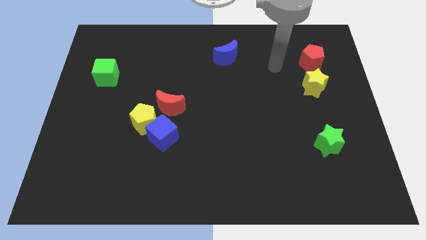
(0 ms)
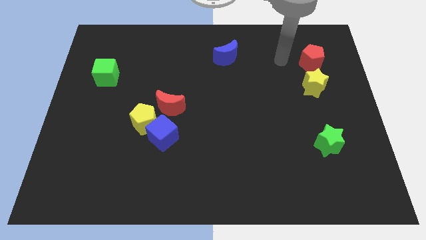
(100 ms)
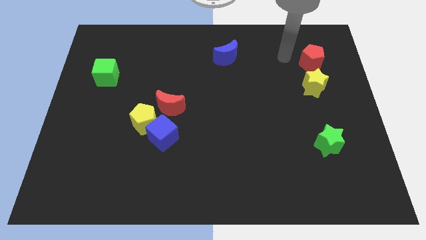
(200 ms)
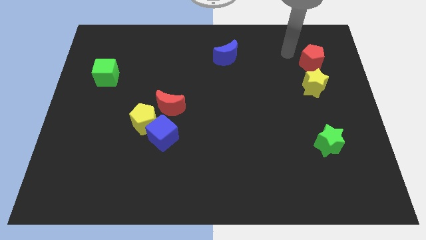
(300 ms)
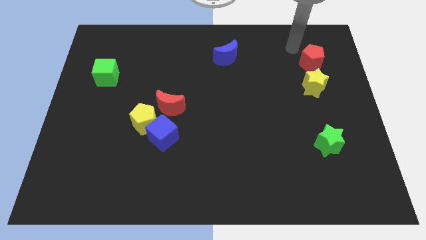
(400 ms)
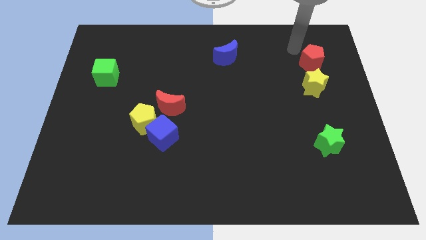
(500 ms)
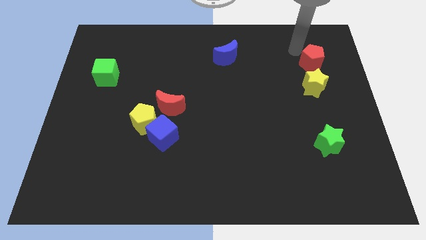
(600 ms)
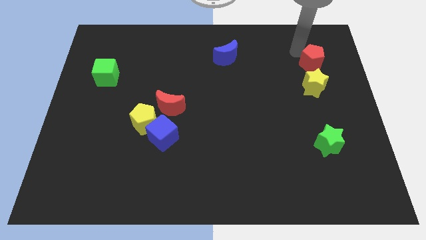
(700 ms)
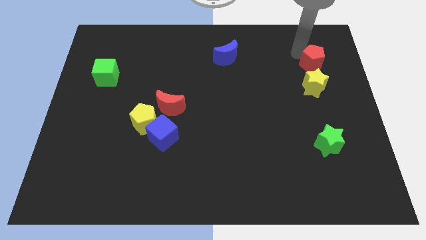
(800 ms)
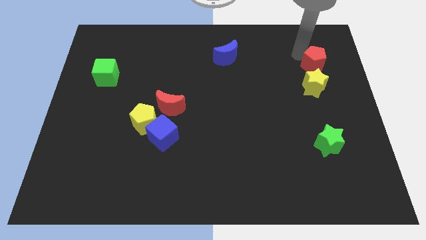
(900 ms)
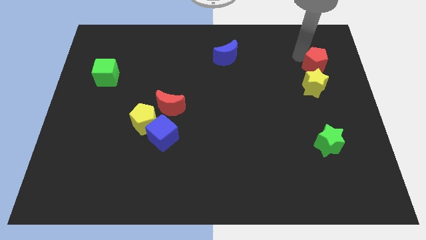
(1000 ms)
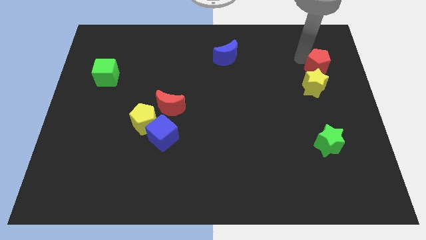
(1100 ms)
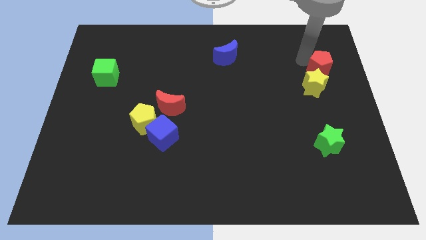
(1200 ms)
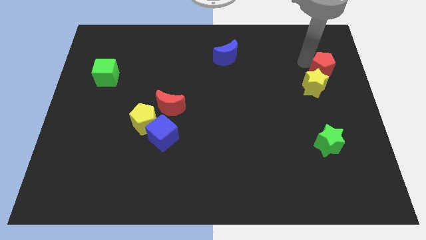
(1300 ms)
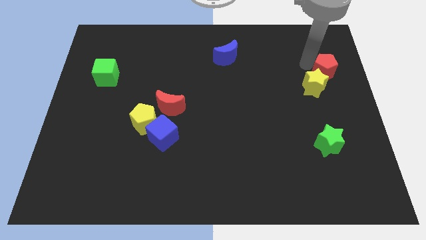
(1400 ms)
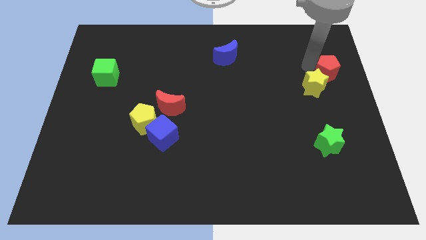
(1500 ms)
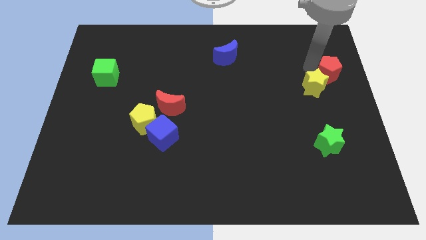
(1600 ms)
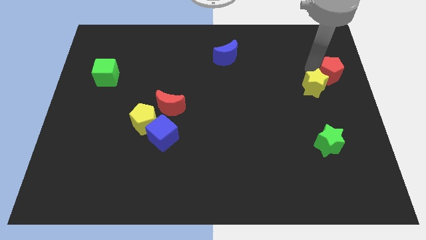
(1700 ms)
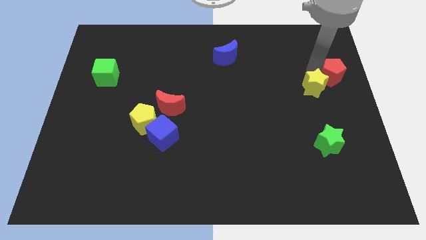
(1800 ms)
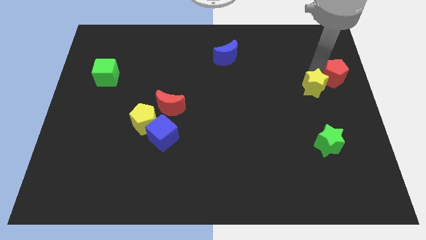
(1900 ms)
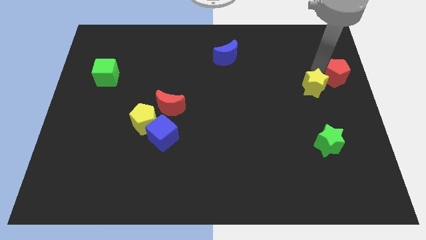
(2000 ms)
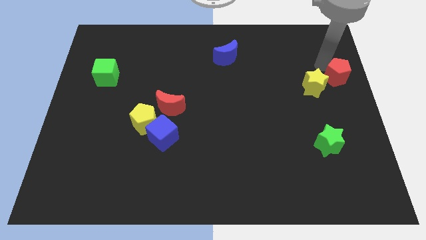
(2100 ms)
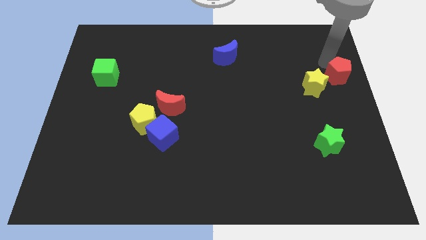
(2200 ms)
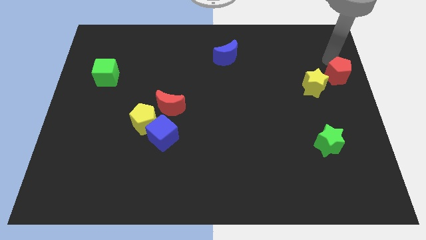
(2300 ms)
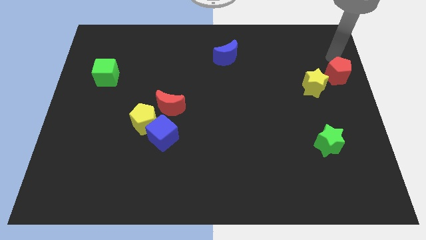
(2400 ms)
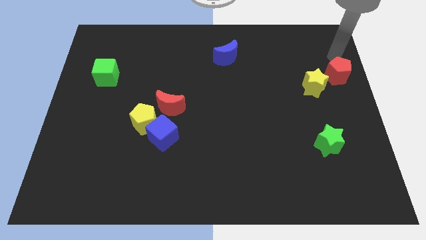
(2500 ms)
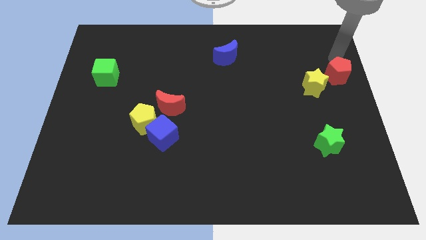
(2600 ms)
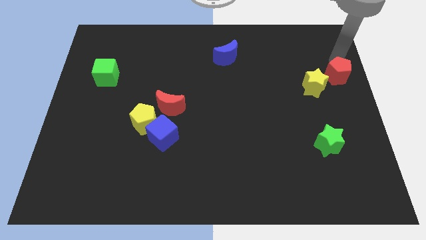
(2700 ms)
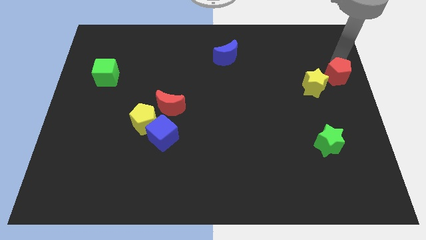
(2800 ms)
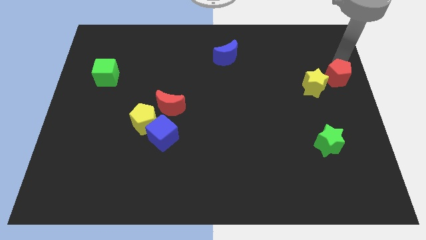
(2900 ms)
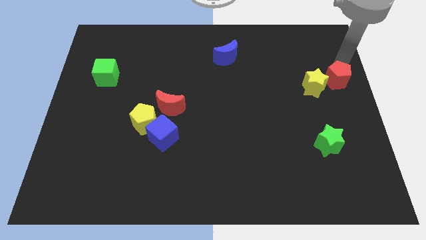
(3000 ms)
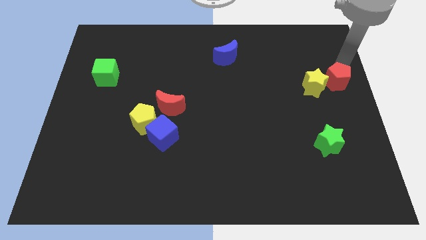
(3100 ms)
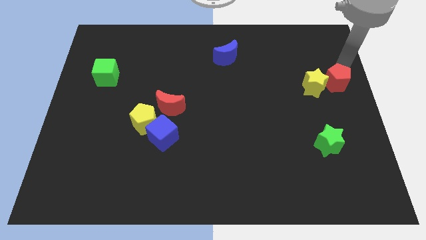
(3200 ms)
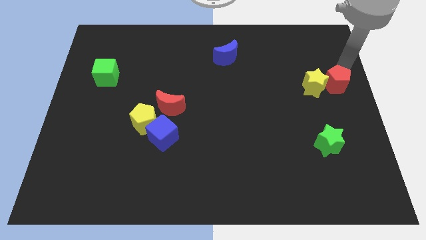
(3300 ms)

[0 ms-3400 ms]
slide the red pentagon downwards a little bit

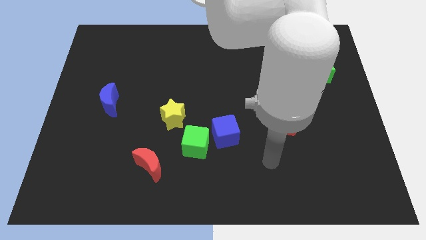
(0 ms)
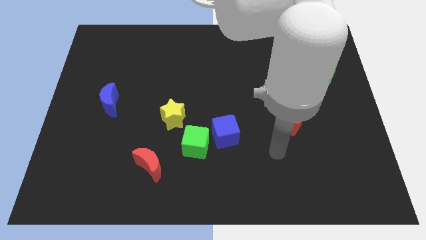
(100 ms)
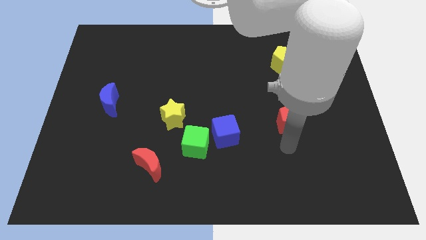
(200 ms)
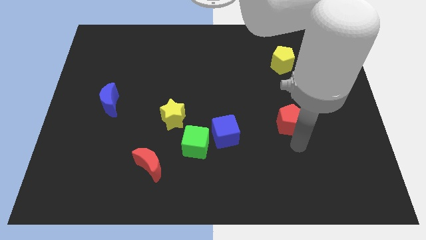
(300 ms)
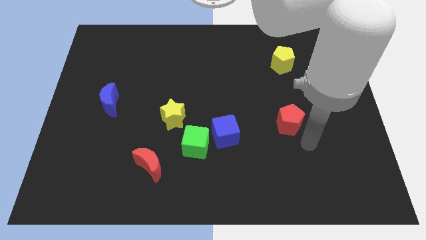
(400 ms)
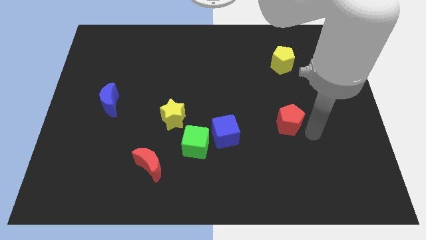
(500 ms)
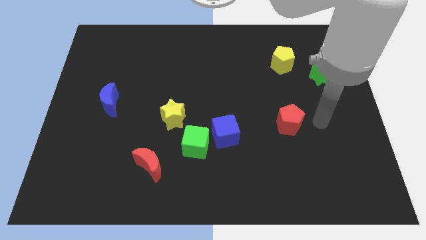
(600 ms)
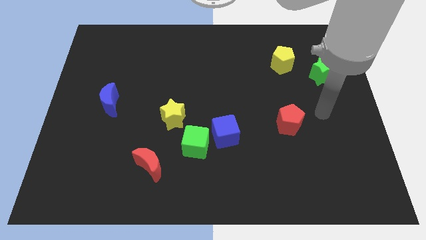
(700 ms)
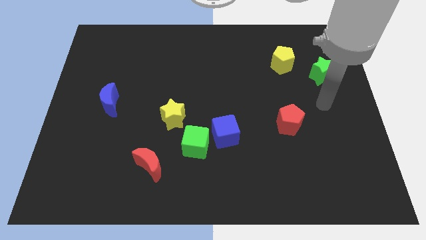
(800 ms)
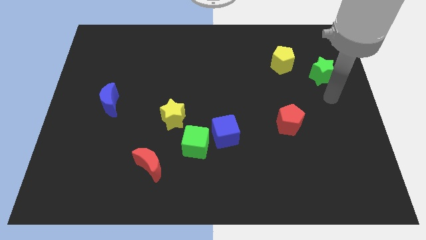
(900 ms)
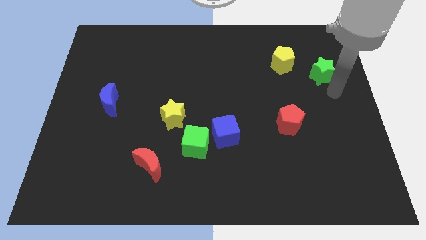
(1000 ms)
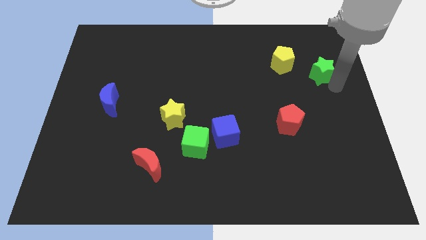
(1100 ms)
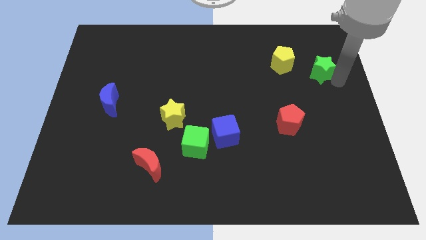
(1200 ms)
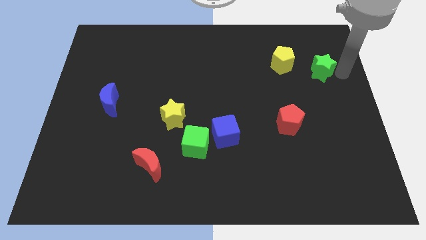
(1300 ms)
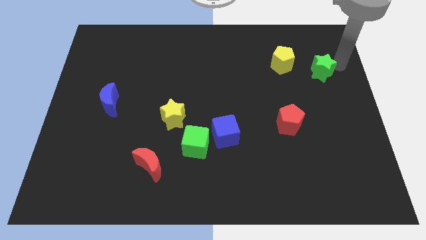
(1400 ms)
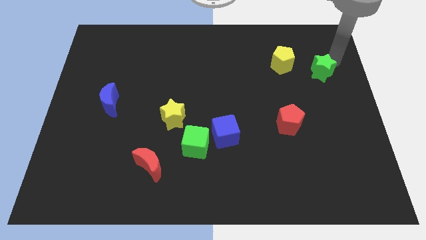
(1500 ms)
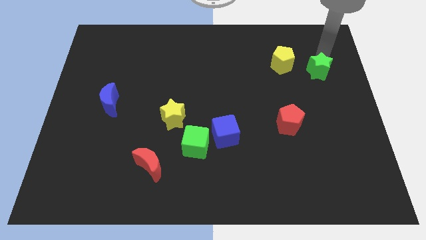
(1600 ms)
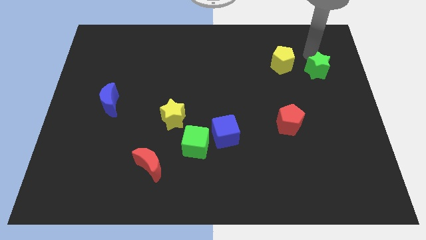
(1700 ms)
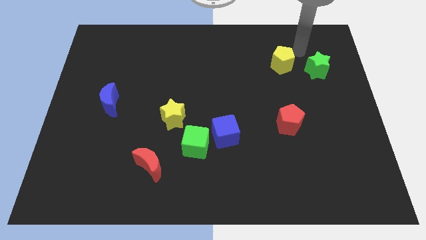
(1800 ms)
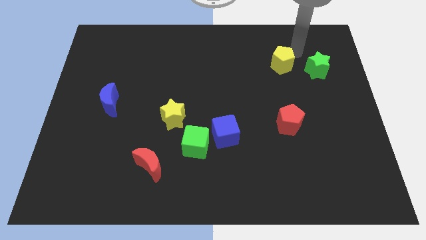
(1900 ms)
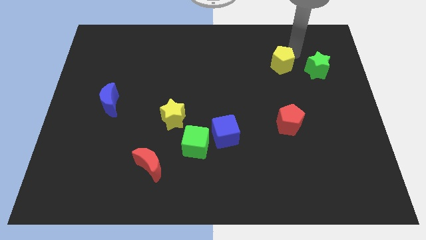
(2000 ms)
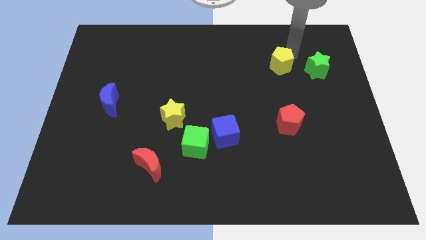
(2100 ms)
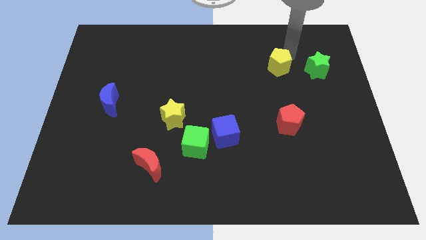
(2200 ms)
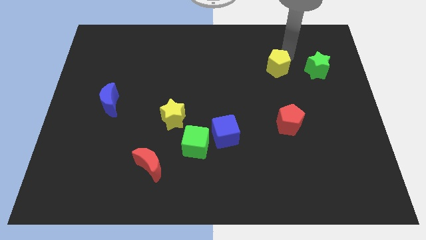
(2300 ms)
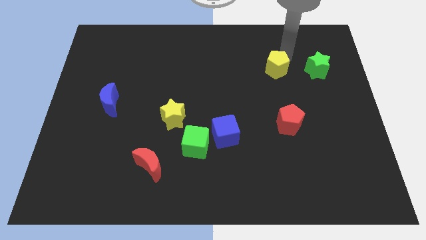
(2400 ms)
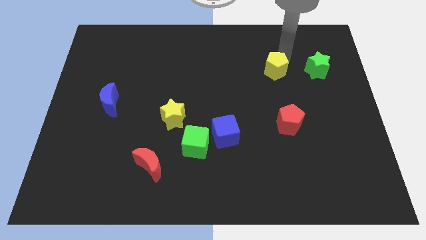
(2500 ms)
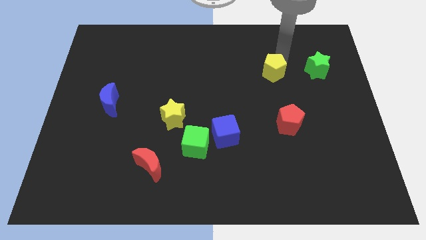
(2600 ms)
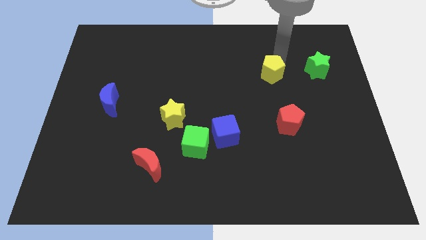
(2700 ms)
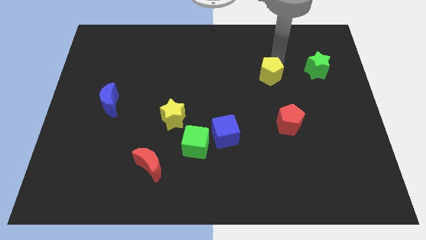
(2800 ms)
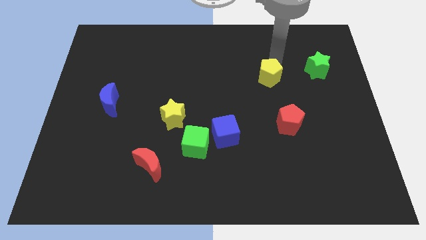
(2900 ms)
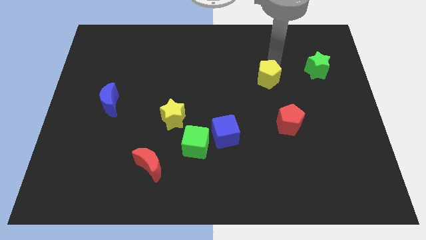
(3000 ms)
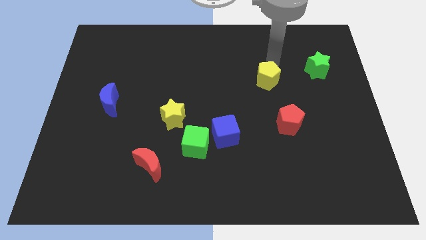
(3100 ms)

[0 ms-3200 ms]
push the yellow pentagon downwards and to the left diagonally a bit

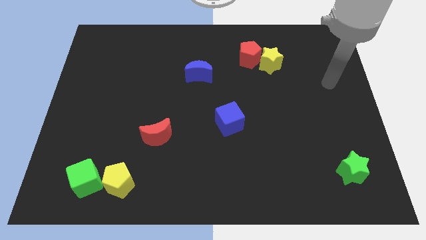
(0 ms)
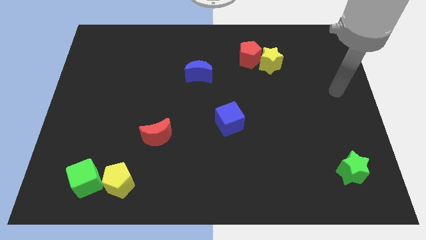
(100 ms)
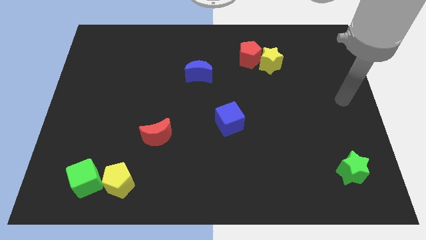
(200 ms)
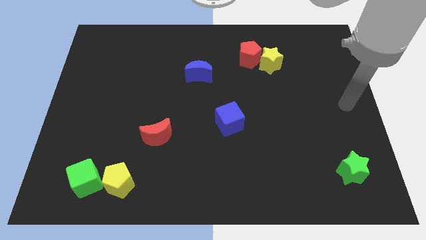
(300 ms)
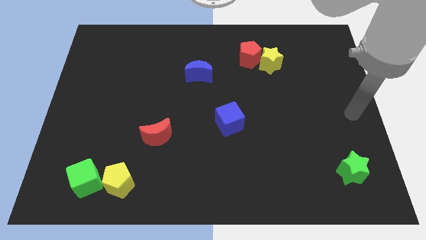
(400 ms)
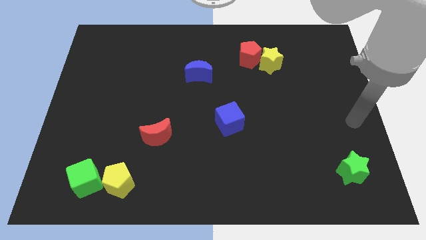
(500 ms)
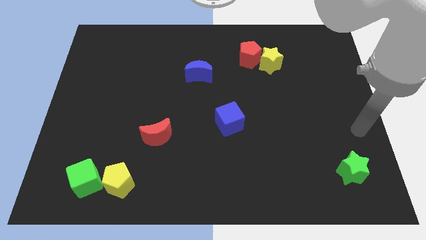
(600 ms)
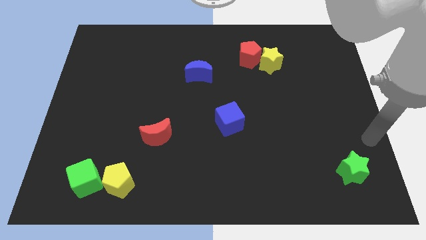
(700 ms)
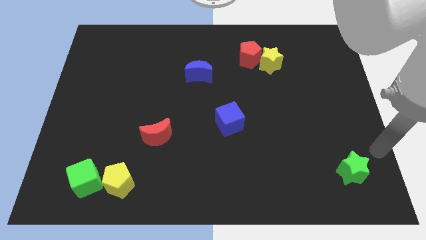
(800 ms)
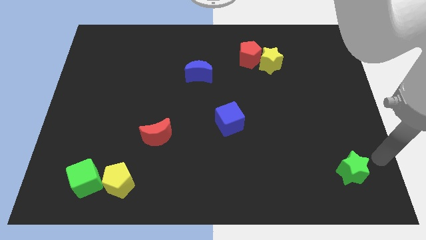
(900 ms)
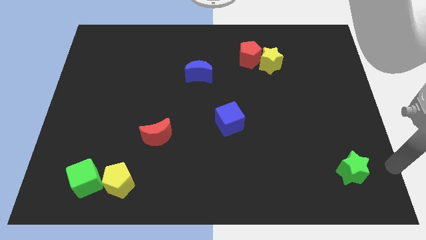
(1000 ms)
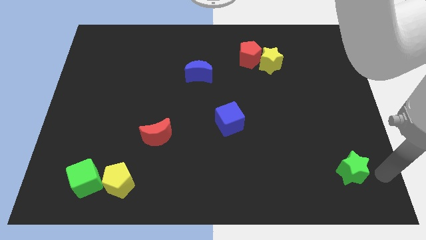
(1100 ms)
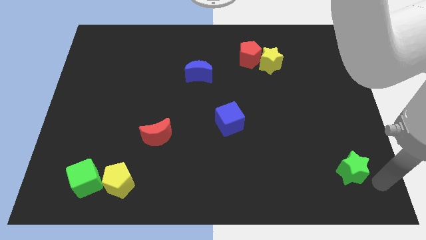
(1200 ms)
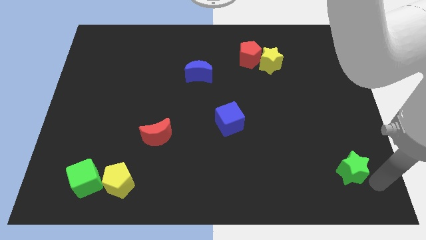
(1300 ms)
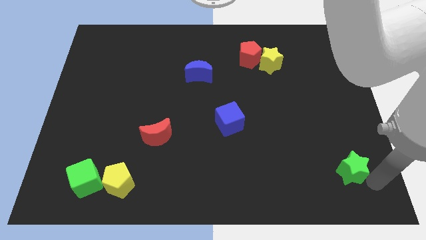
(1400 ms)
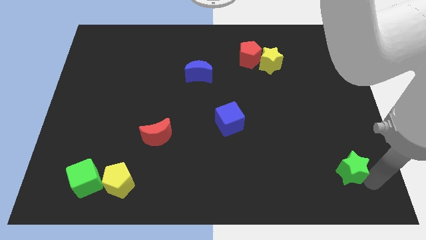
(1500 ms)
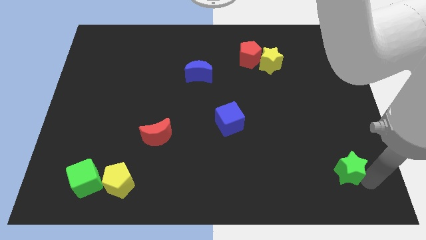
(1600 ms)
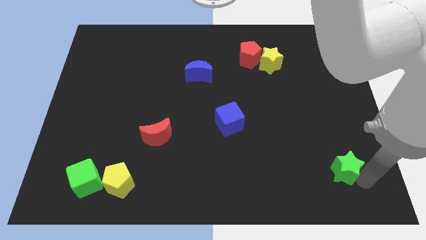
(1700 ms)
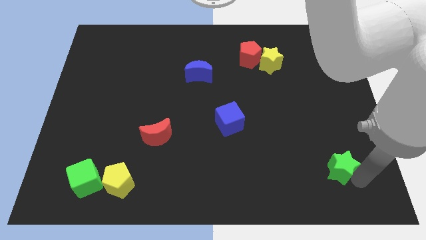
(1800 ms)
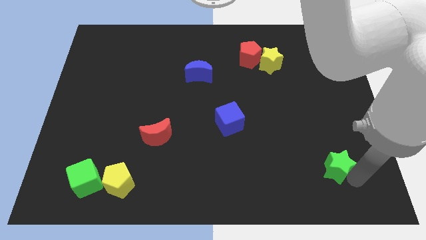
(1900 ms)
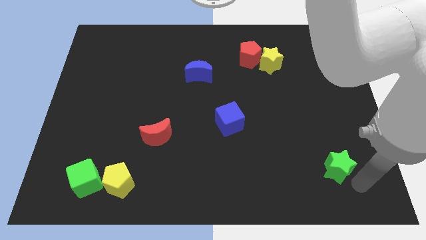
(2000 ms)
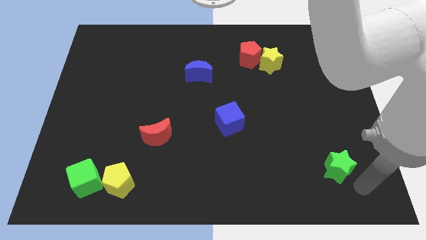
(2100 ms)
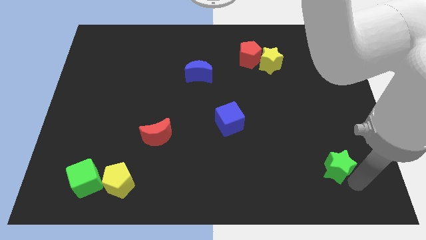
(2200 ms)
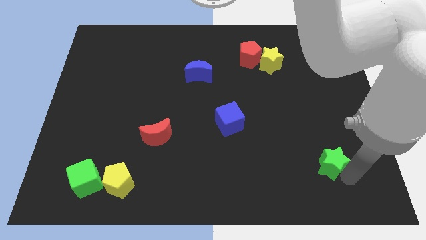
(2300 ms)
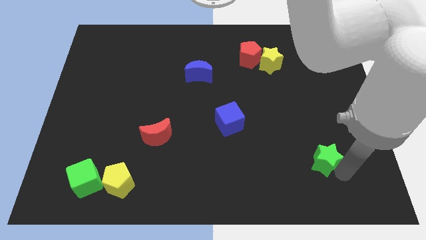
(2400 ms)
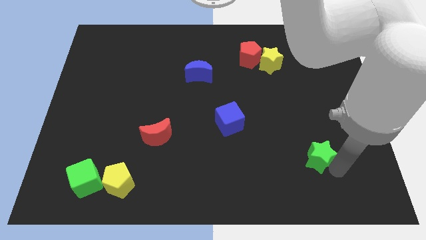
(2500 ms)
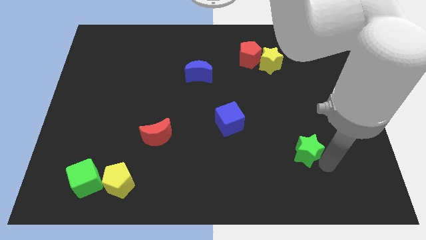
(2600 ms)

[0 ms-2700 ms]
slide the green star upwards and to the left slightly
